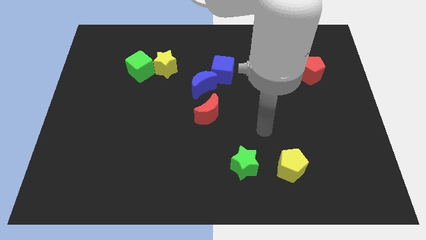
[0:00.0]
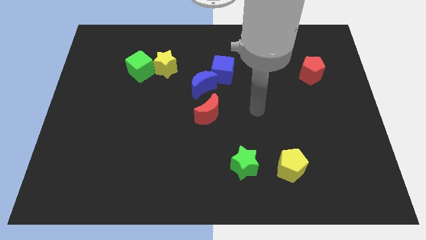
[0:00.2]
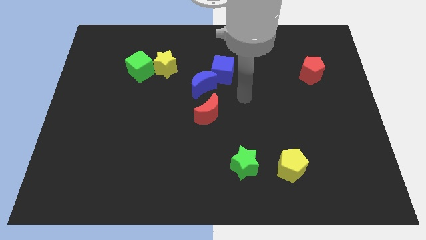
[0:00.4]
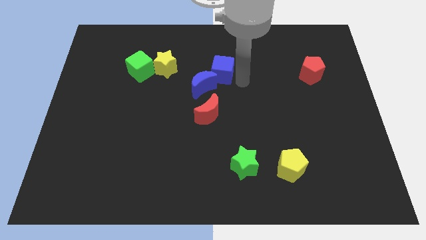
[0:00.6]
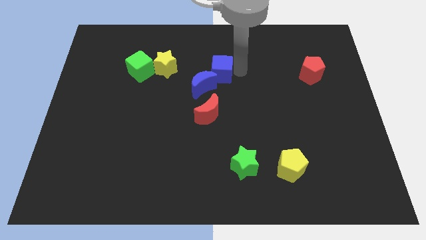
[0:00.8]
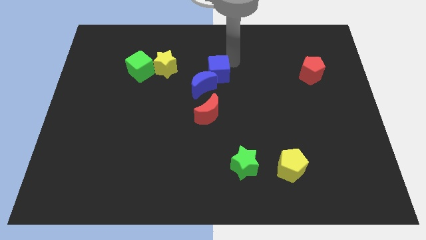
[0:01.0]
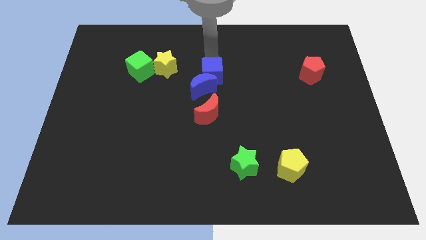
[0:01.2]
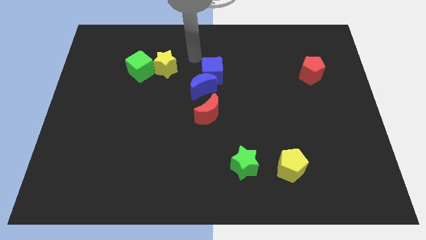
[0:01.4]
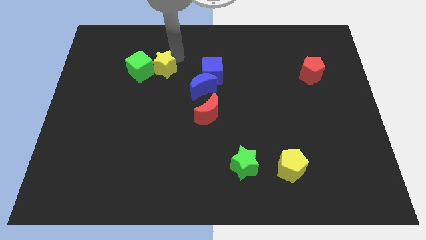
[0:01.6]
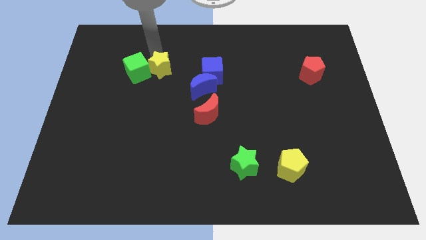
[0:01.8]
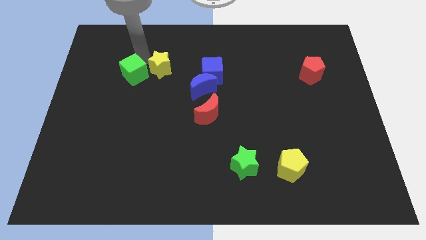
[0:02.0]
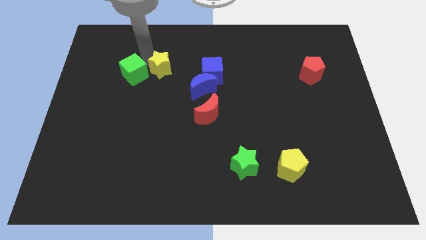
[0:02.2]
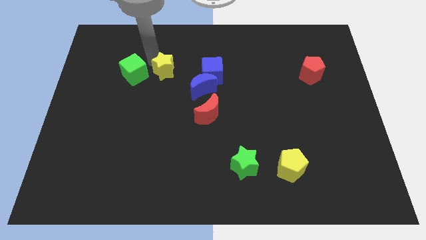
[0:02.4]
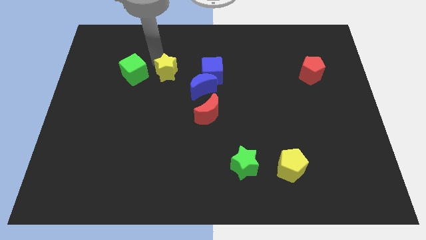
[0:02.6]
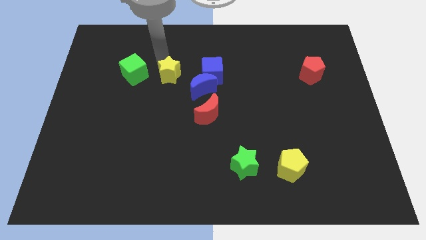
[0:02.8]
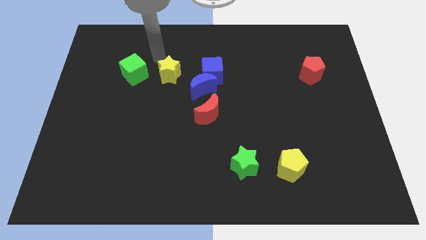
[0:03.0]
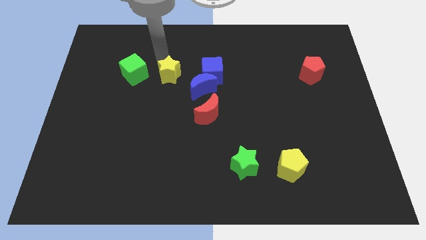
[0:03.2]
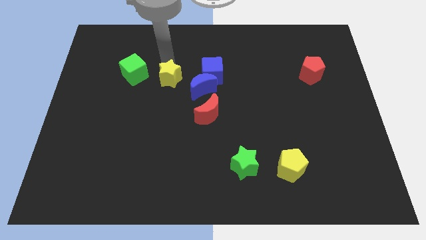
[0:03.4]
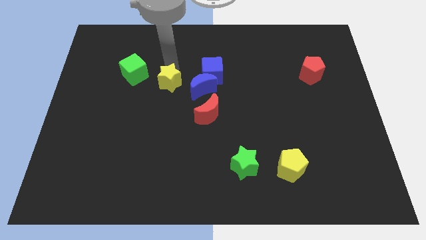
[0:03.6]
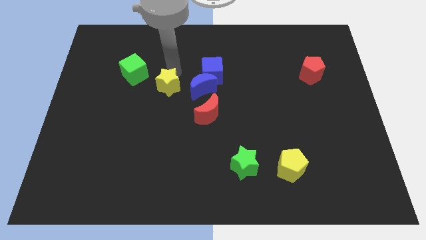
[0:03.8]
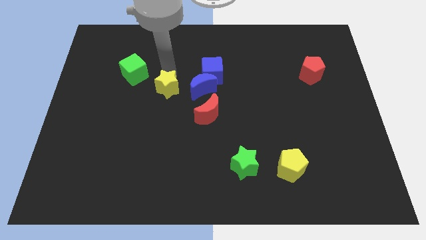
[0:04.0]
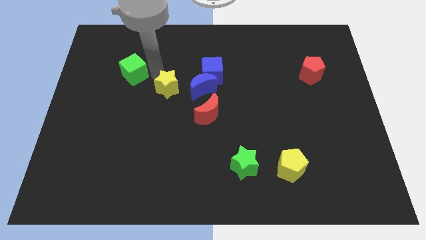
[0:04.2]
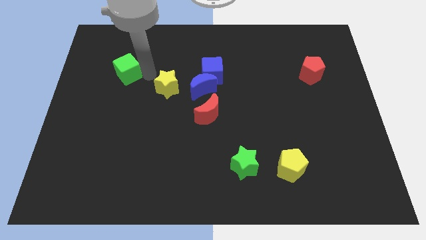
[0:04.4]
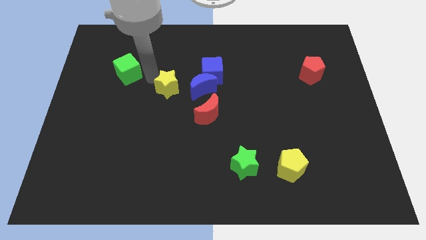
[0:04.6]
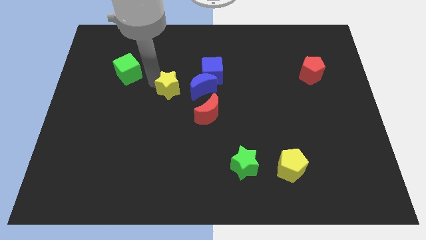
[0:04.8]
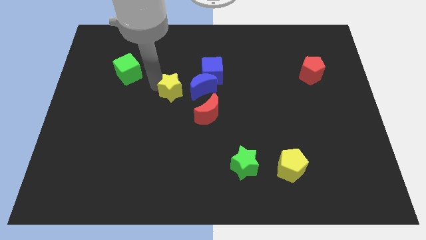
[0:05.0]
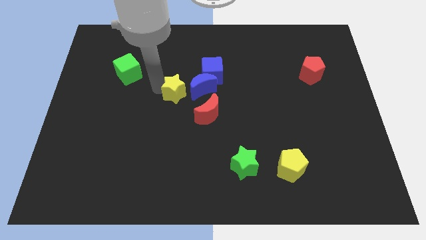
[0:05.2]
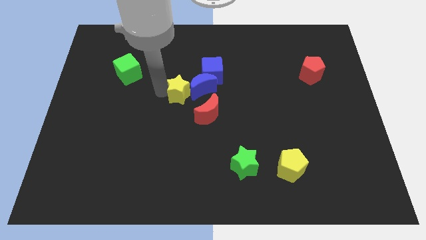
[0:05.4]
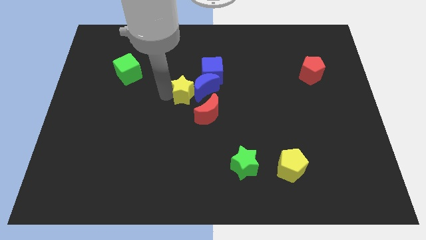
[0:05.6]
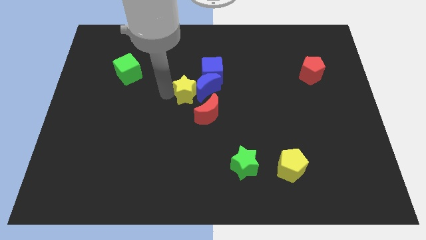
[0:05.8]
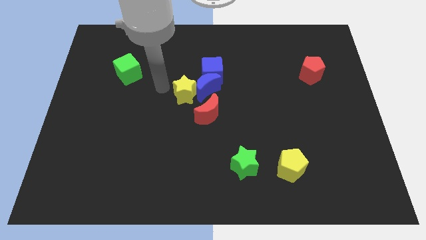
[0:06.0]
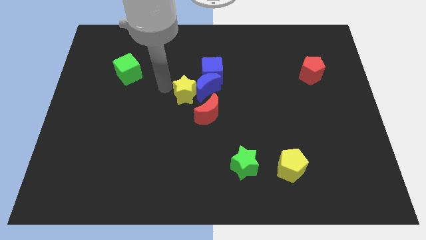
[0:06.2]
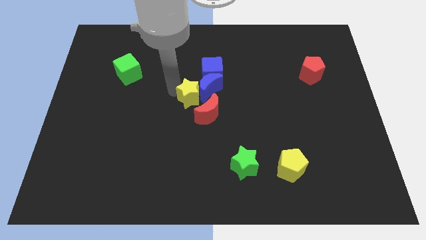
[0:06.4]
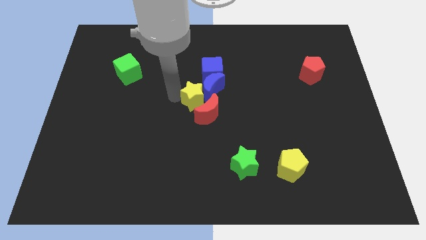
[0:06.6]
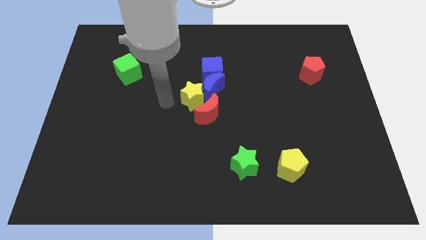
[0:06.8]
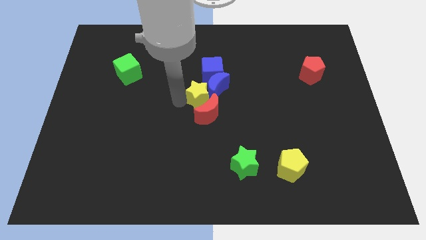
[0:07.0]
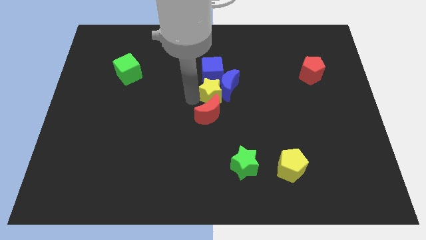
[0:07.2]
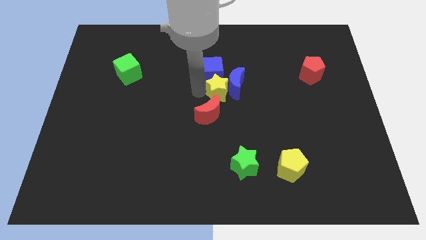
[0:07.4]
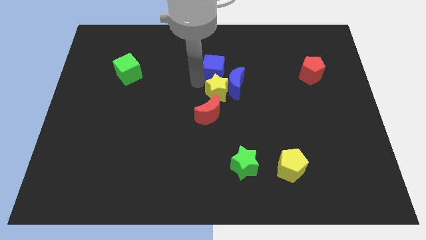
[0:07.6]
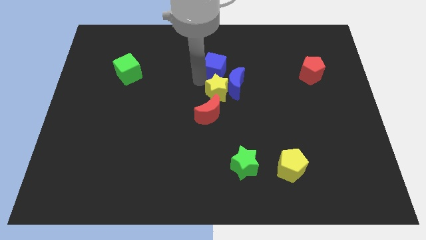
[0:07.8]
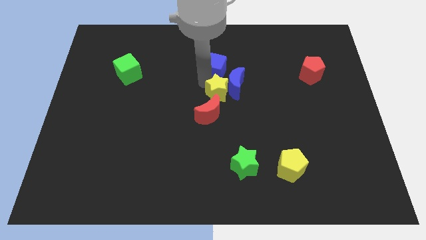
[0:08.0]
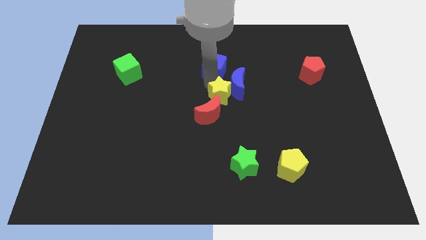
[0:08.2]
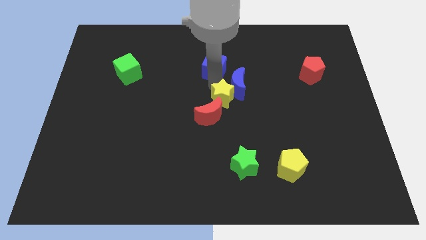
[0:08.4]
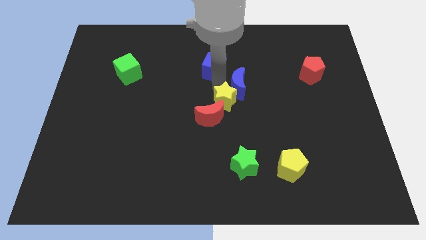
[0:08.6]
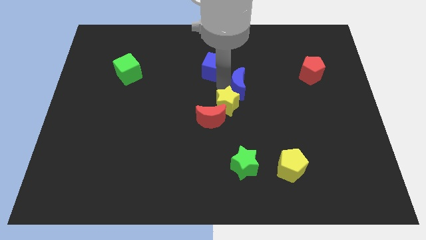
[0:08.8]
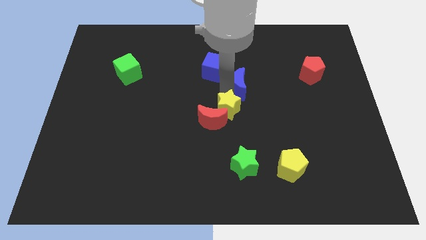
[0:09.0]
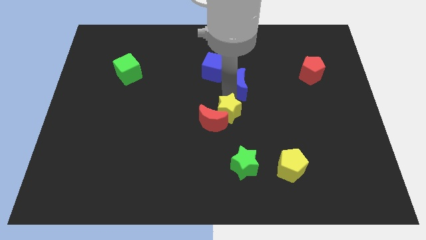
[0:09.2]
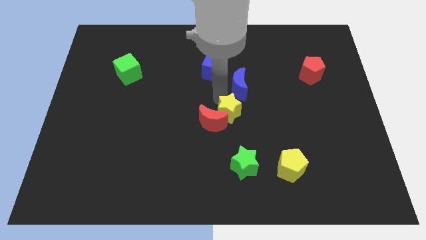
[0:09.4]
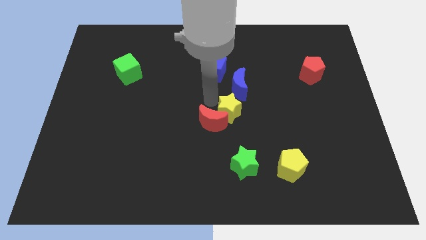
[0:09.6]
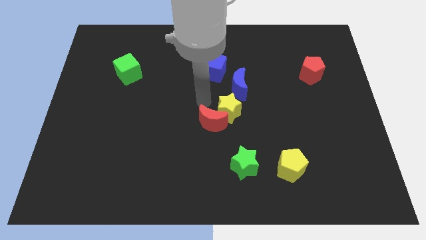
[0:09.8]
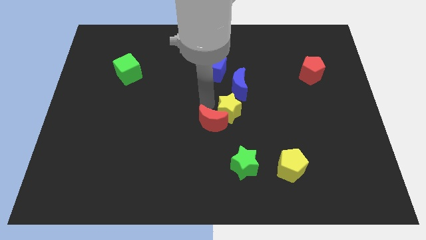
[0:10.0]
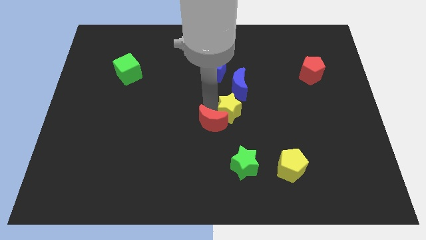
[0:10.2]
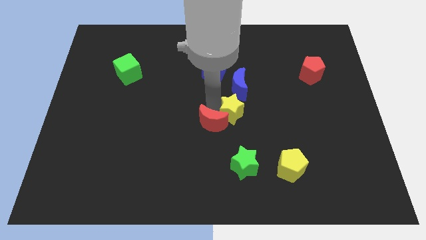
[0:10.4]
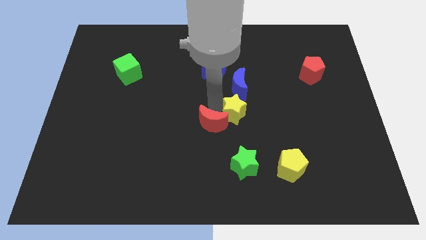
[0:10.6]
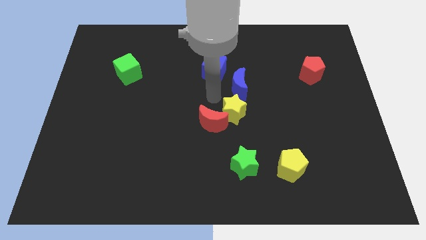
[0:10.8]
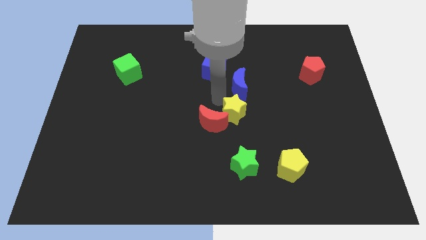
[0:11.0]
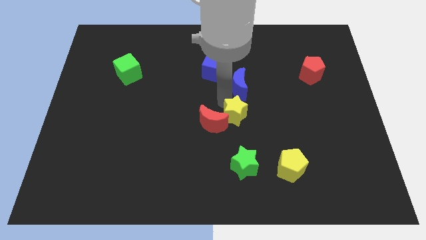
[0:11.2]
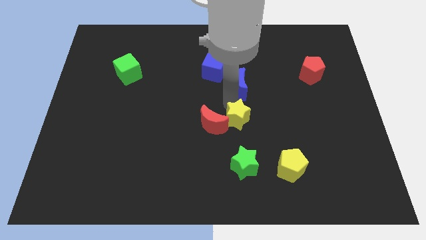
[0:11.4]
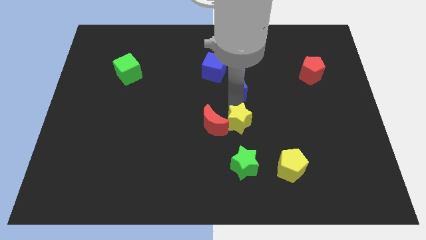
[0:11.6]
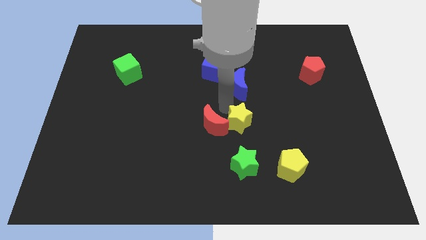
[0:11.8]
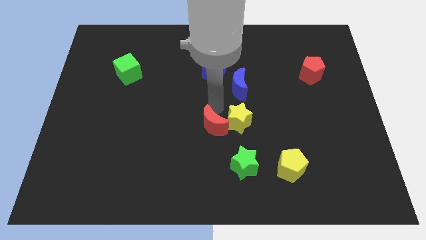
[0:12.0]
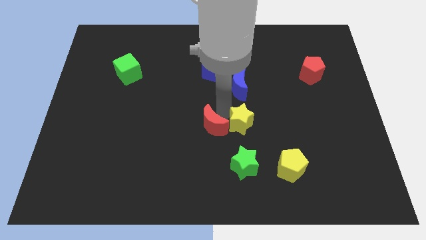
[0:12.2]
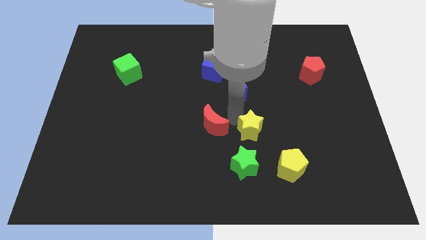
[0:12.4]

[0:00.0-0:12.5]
push the yellow star diagonally up and to the left of the yellow pentagon

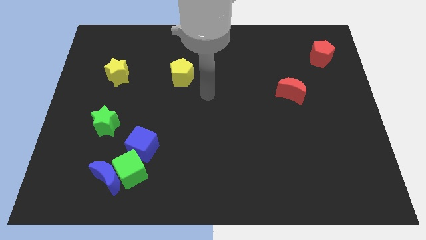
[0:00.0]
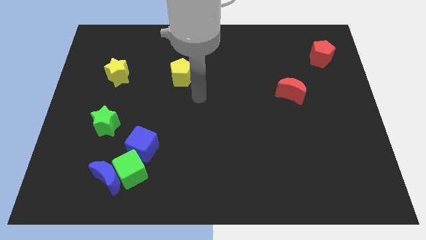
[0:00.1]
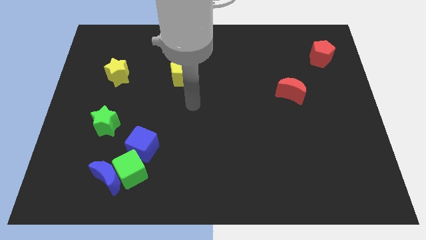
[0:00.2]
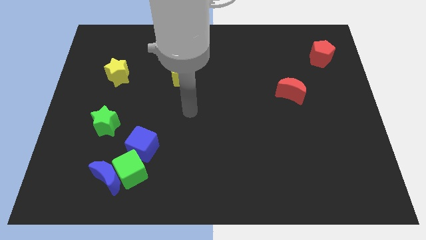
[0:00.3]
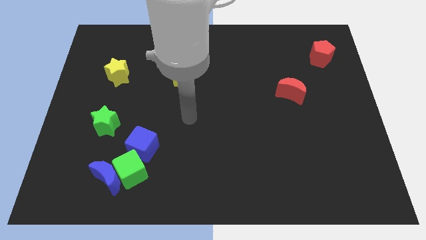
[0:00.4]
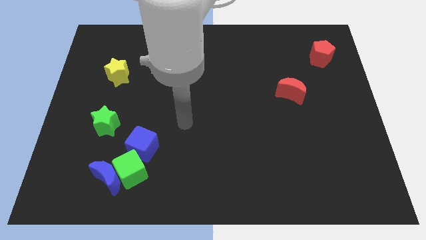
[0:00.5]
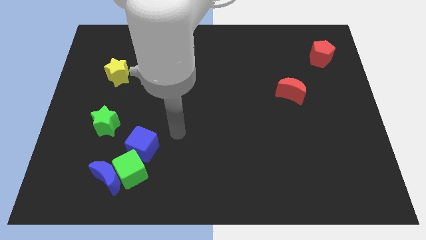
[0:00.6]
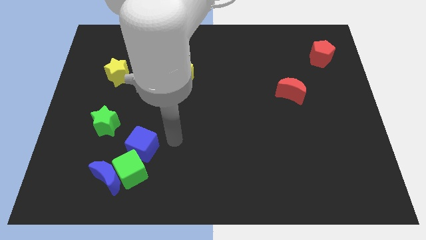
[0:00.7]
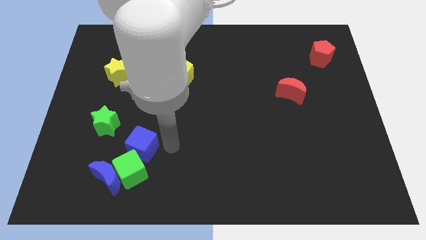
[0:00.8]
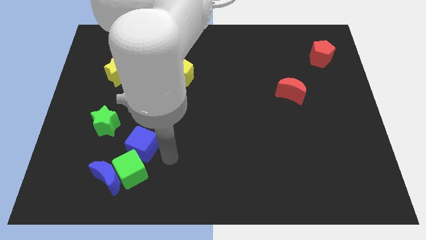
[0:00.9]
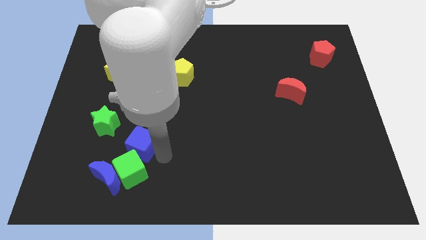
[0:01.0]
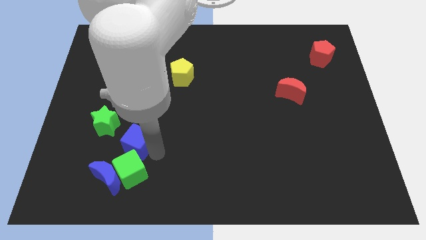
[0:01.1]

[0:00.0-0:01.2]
move the blue cube above the blue moon

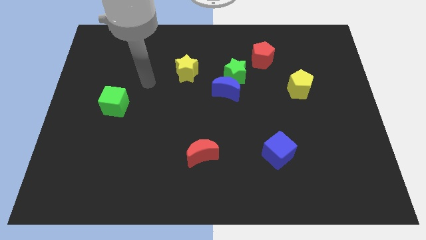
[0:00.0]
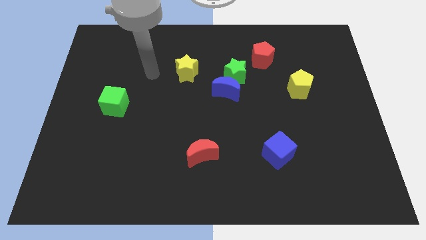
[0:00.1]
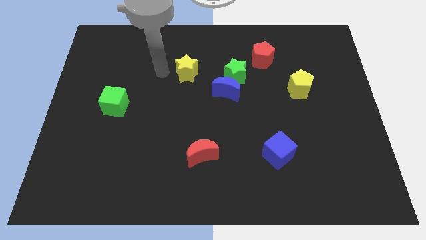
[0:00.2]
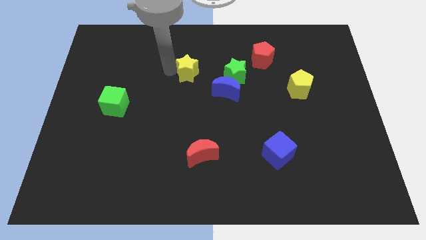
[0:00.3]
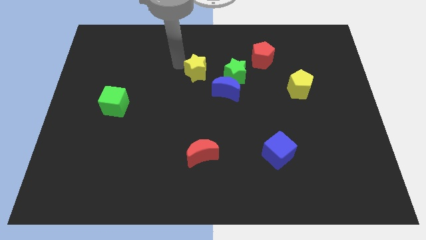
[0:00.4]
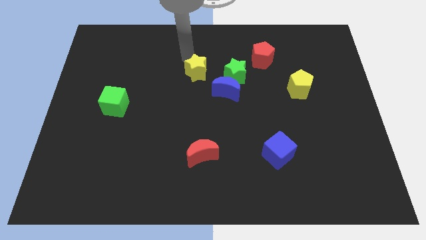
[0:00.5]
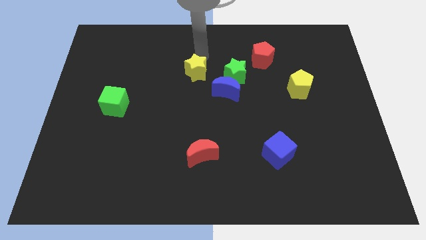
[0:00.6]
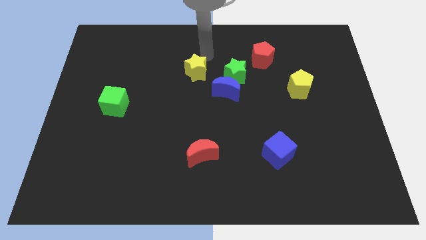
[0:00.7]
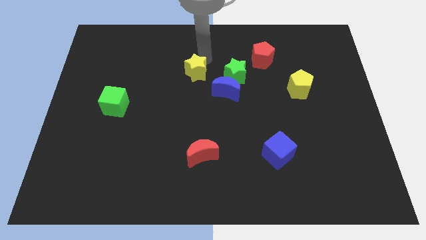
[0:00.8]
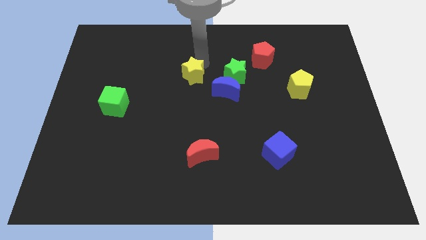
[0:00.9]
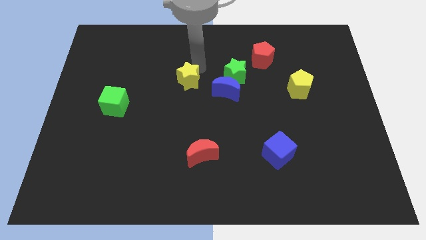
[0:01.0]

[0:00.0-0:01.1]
push the yellow star to the left side of the blue moon
